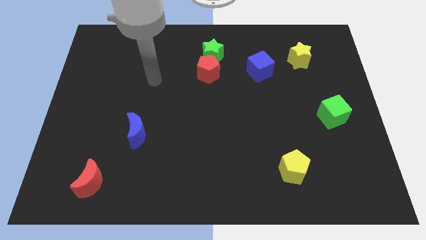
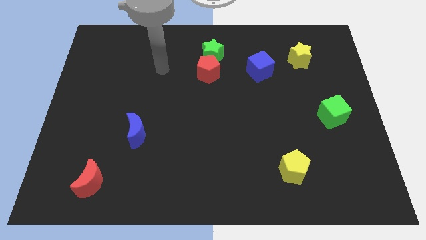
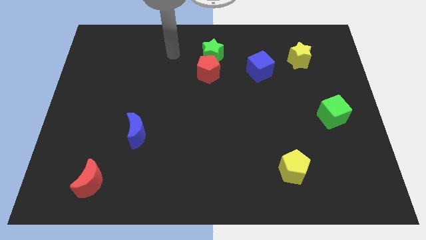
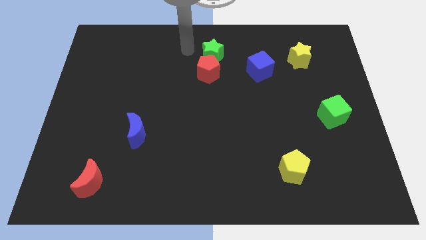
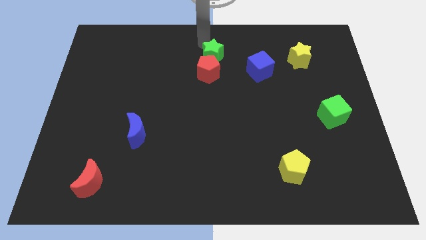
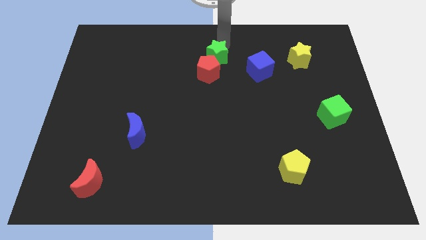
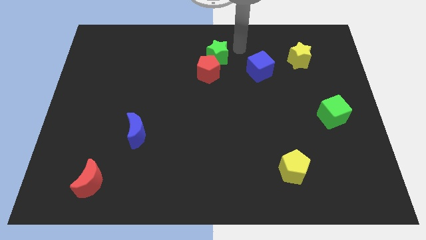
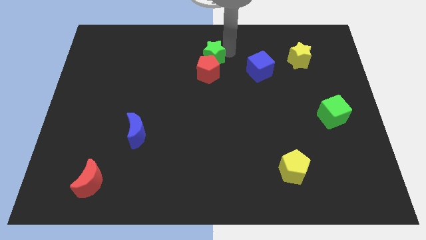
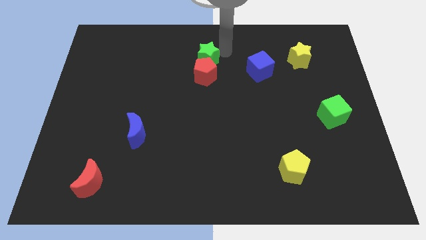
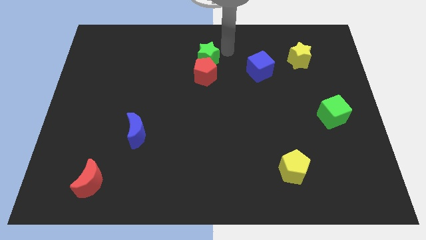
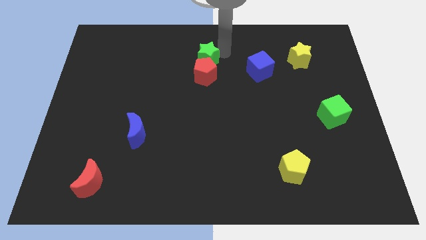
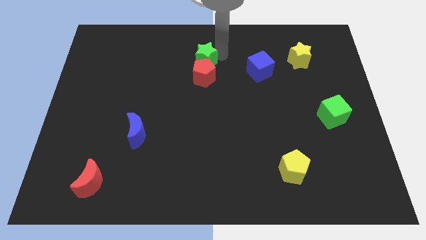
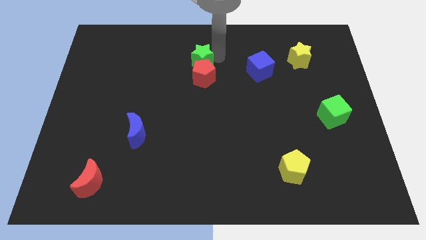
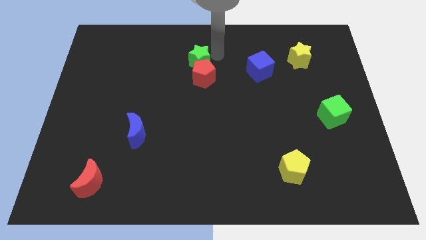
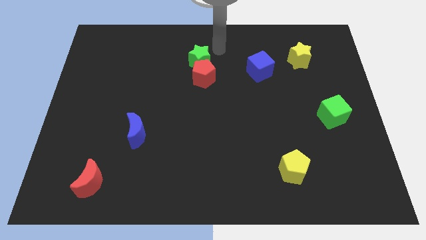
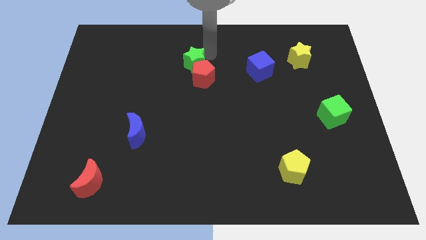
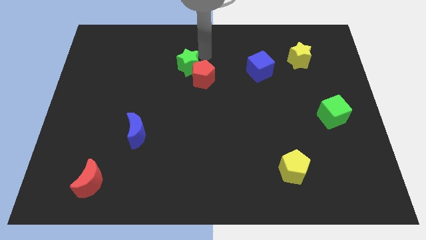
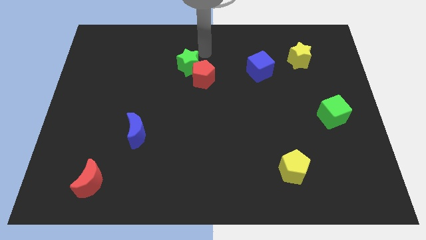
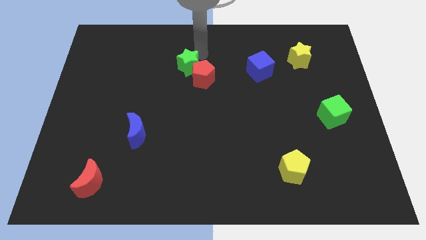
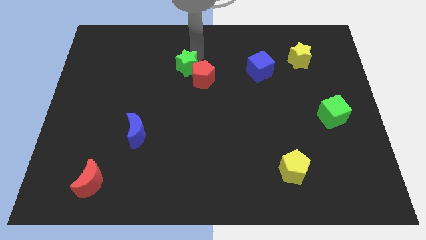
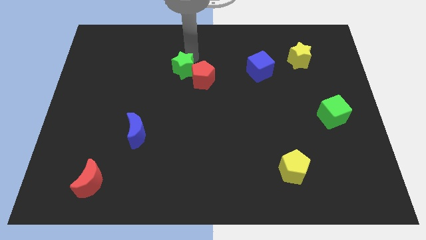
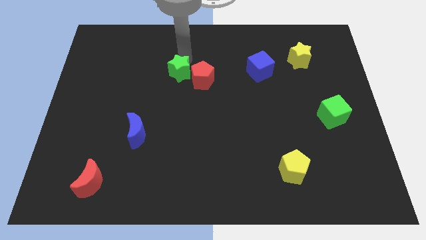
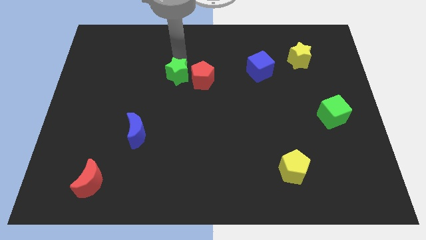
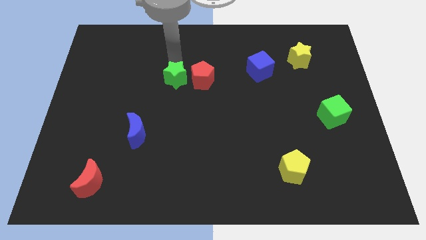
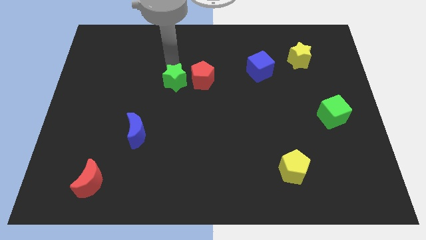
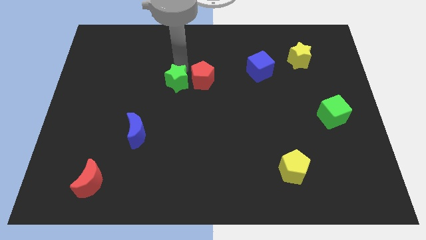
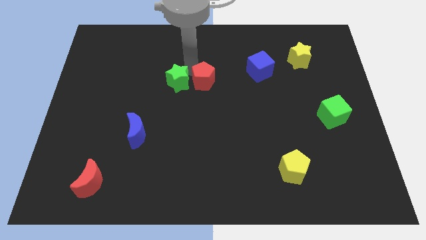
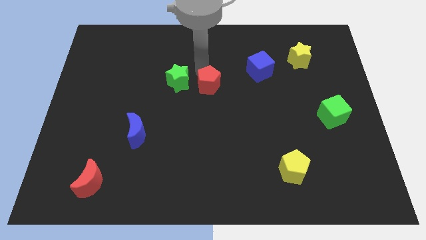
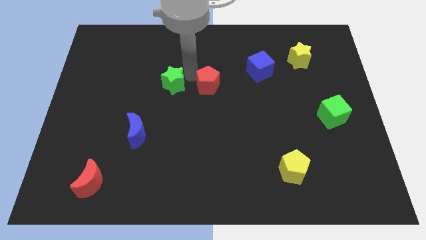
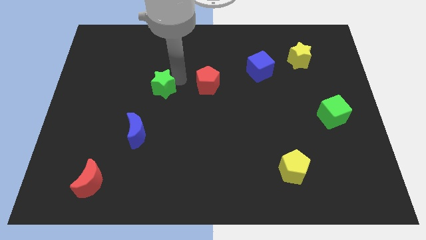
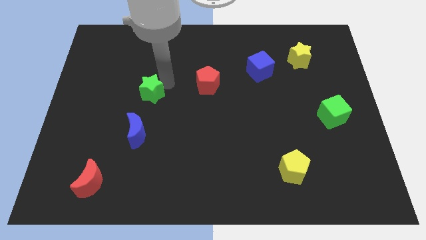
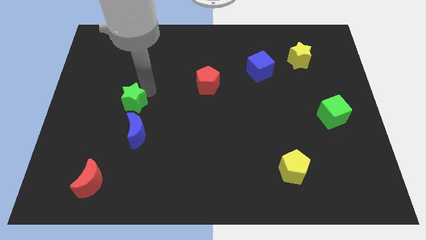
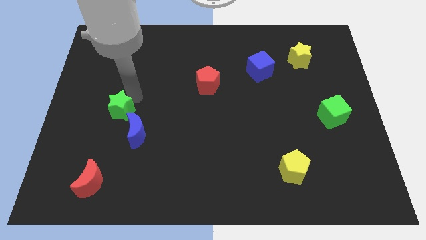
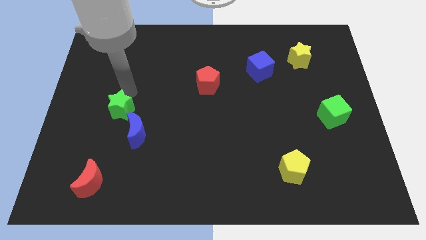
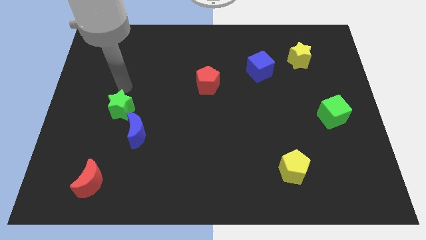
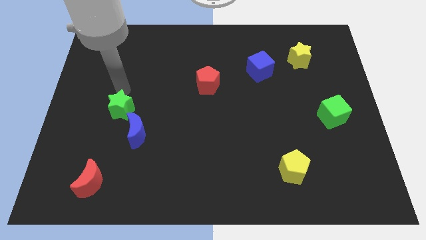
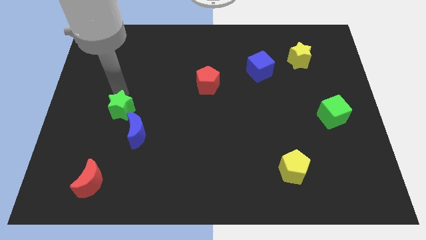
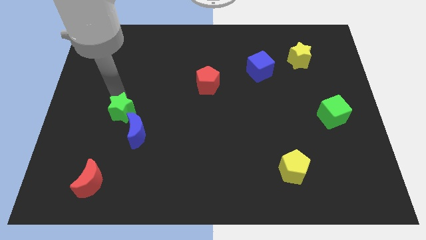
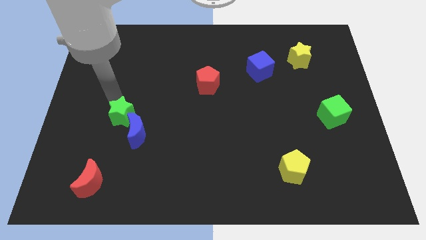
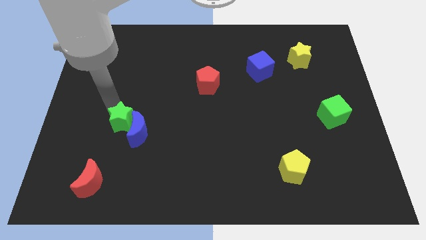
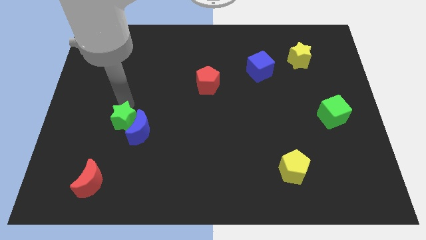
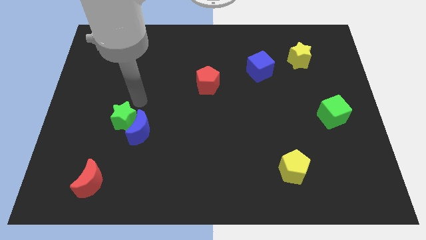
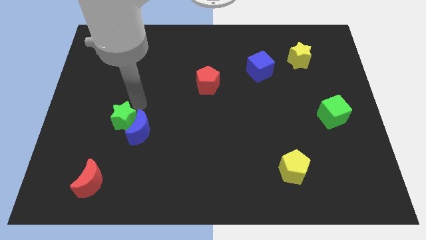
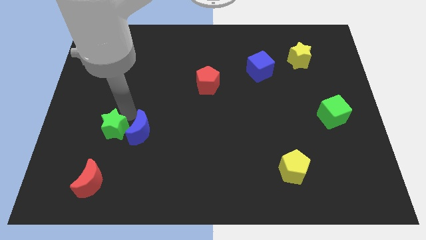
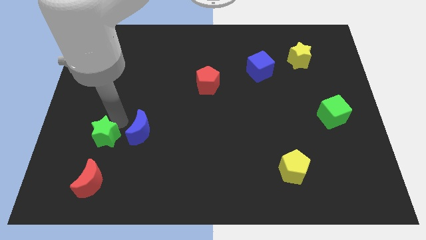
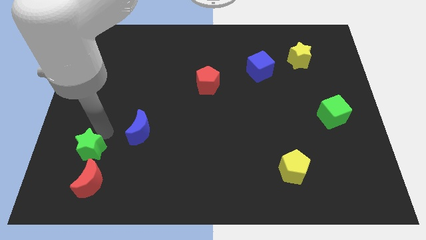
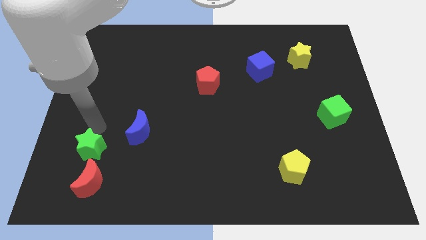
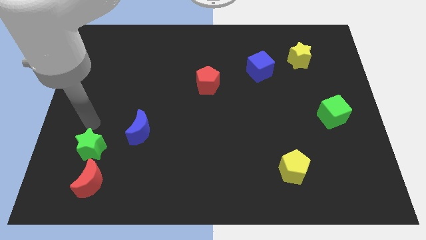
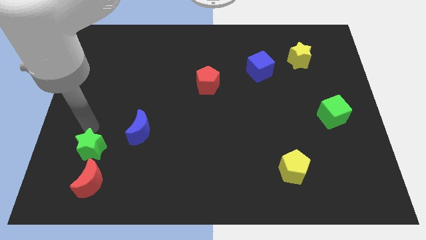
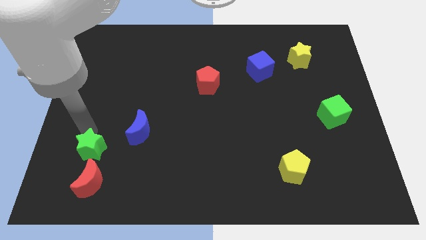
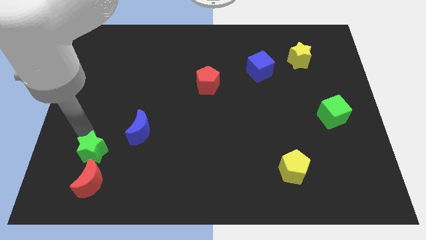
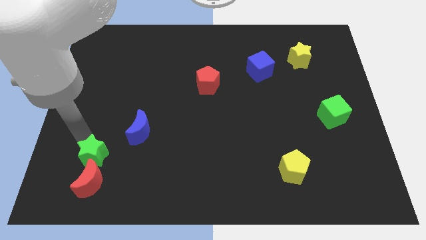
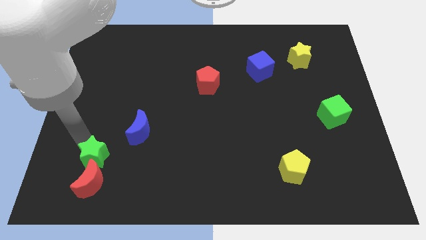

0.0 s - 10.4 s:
push the green star towards the red moon

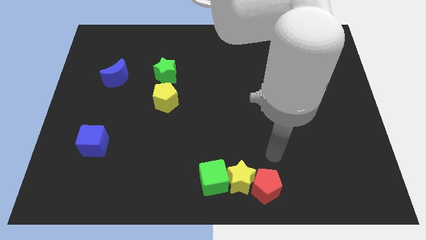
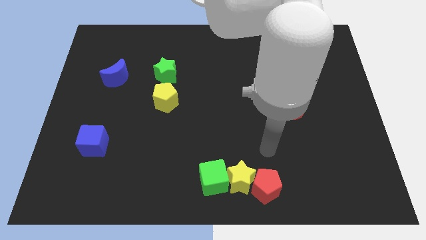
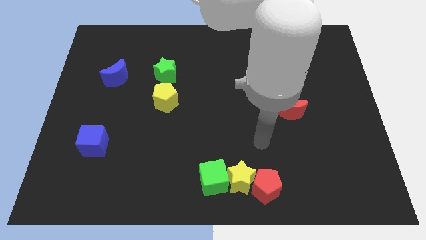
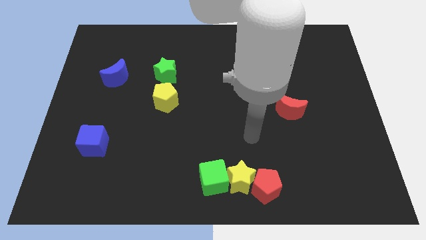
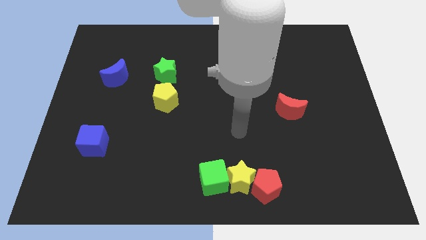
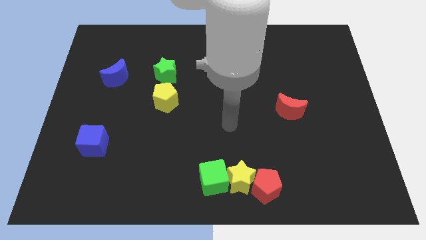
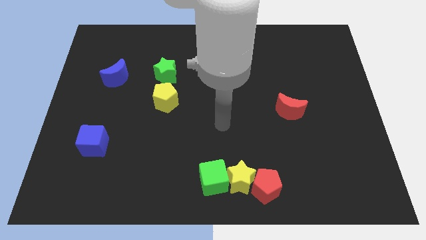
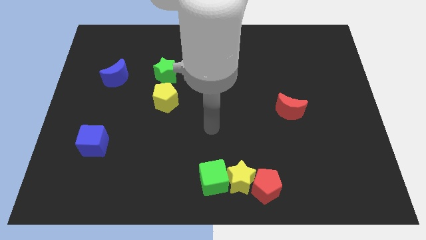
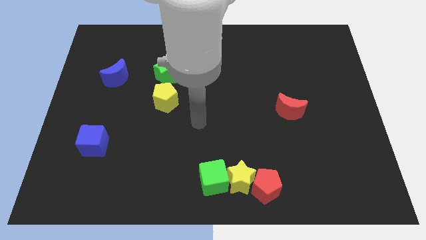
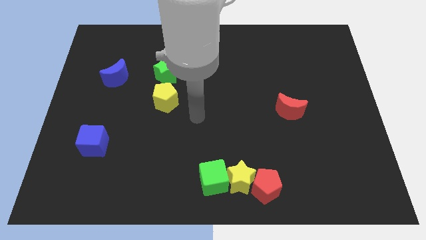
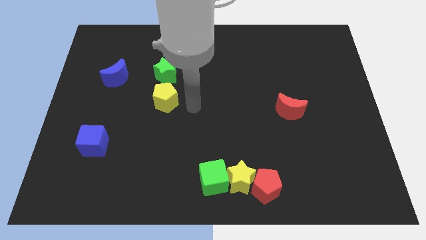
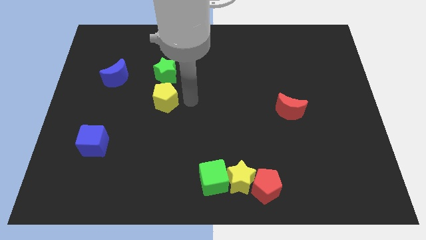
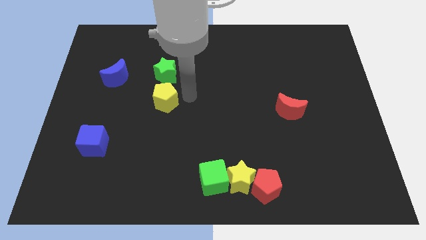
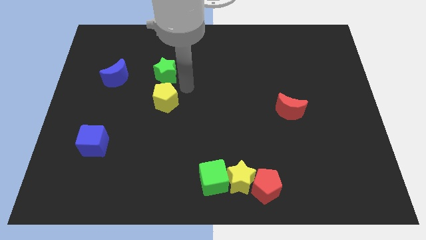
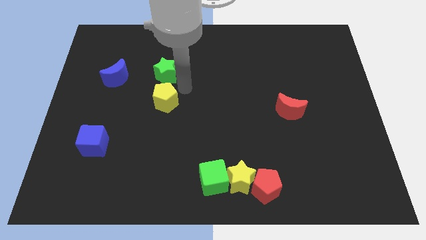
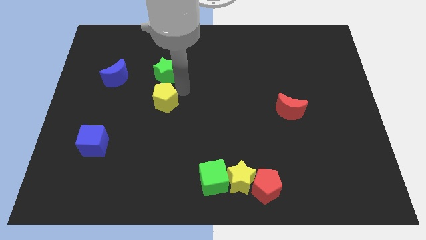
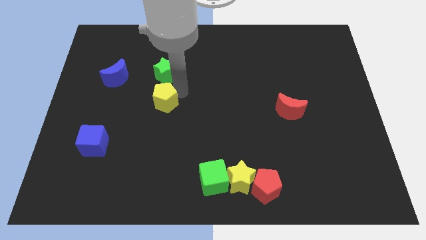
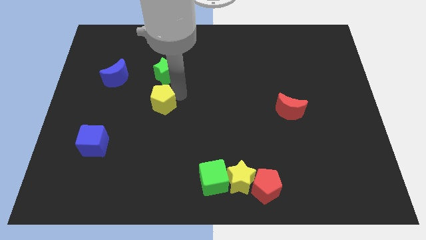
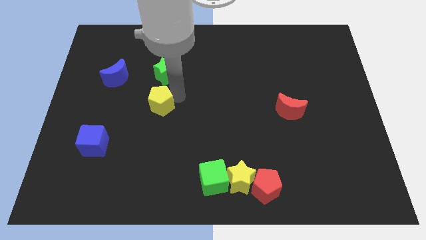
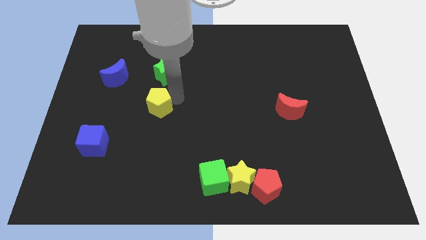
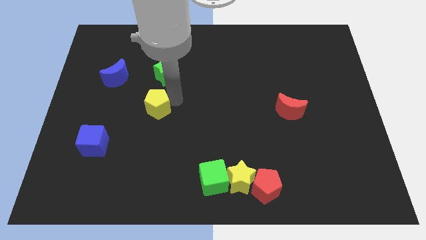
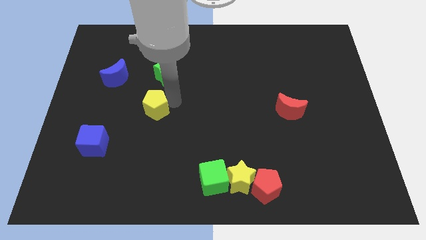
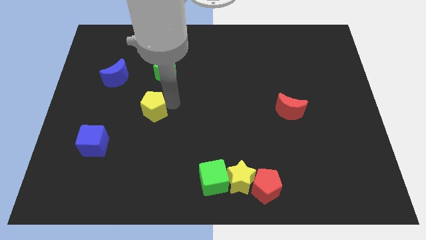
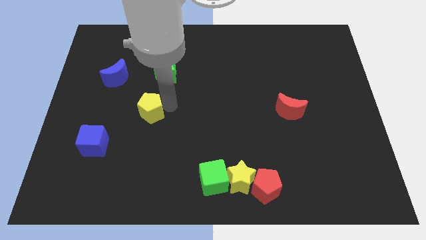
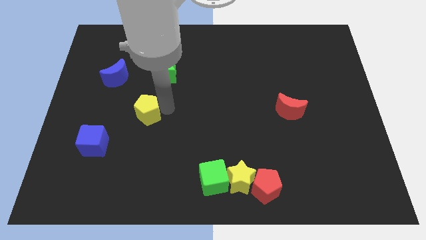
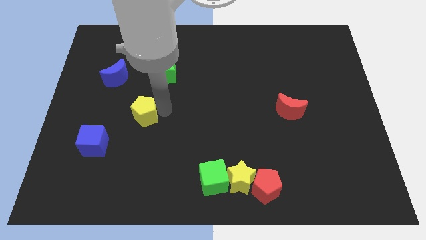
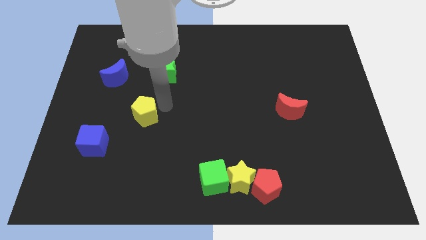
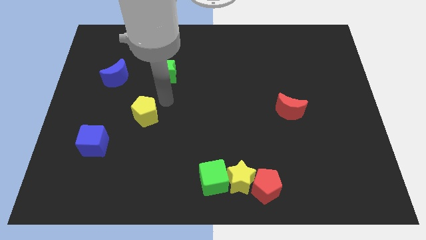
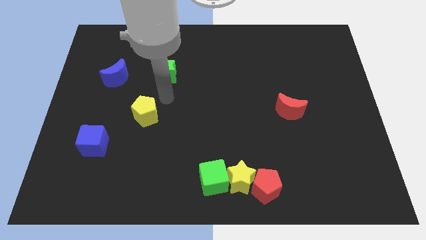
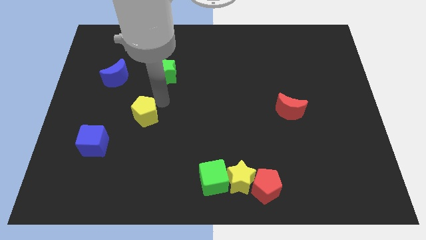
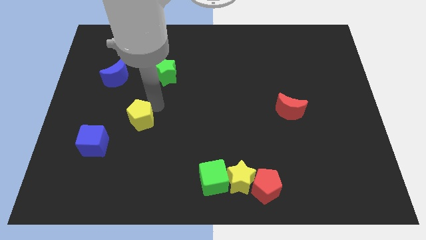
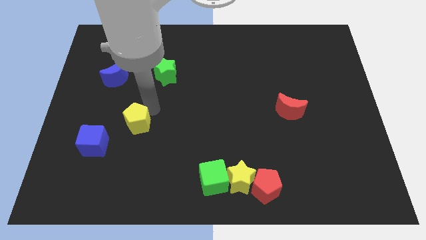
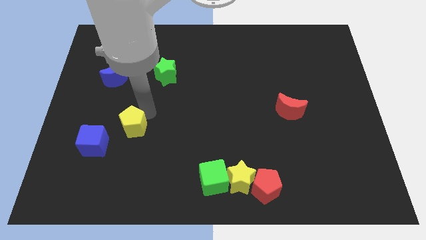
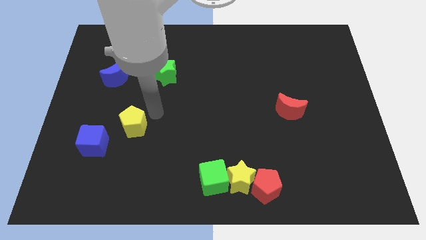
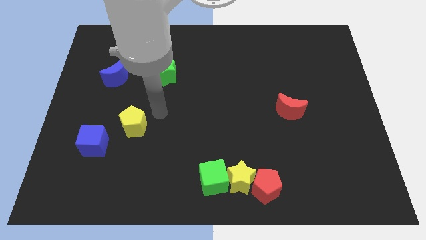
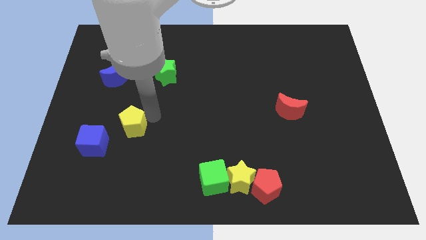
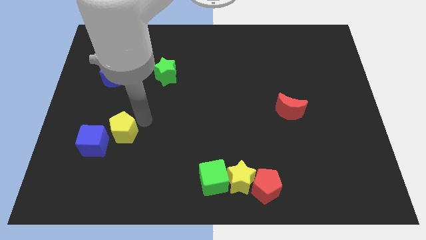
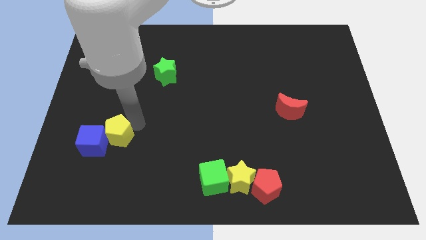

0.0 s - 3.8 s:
move the yellow pentagon towards the blue cube
